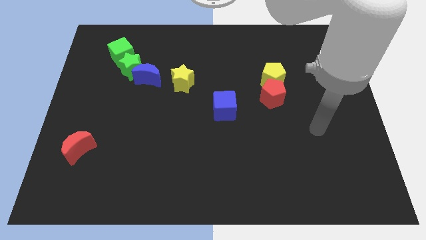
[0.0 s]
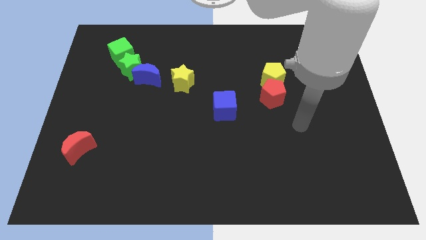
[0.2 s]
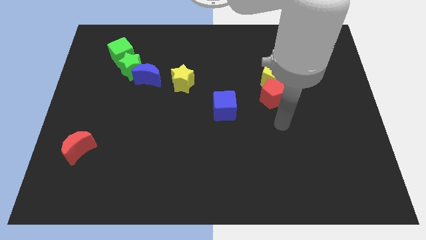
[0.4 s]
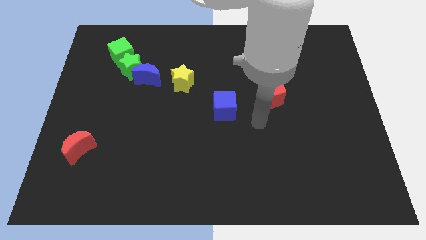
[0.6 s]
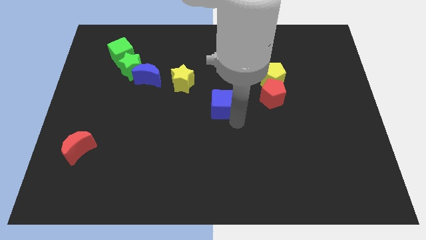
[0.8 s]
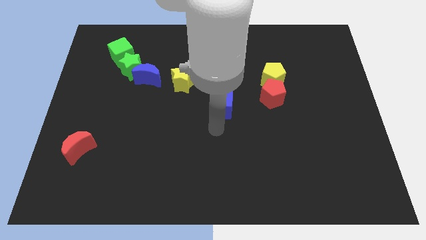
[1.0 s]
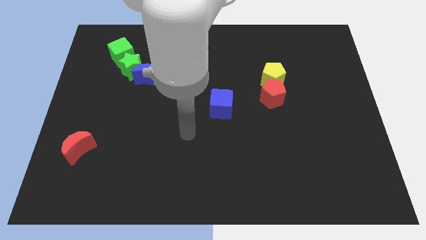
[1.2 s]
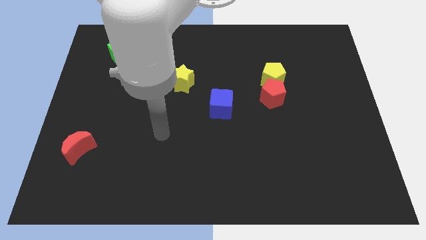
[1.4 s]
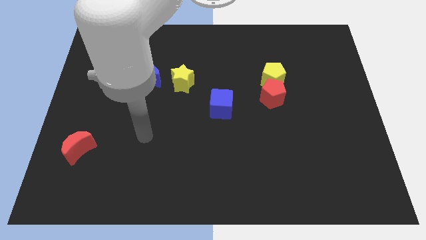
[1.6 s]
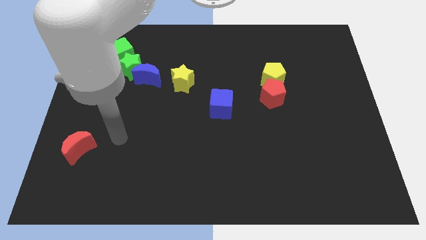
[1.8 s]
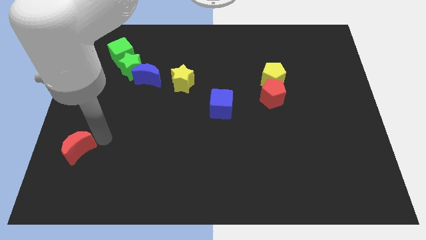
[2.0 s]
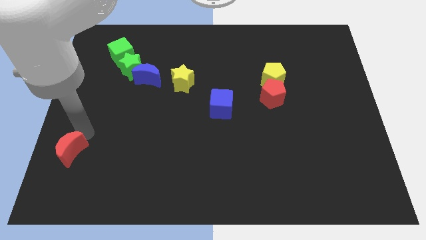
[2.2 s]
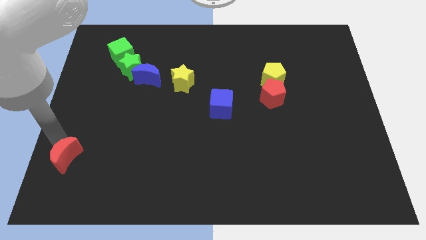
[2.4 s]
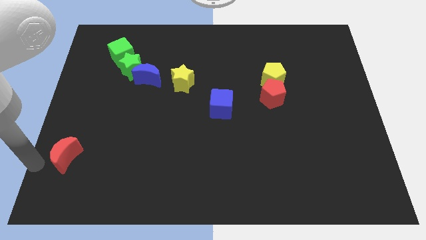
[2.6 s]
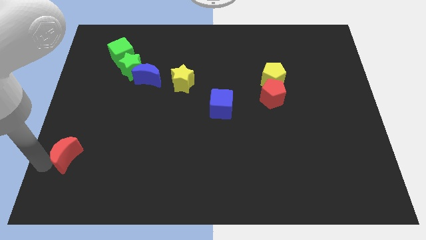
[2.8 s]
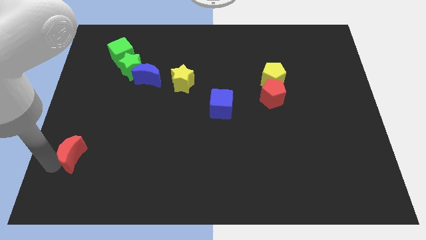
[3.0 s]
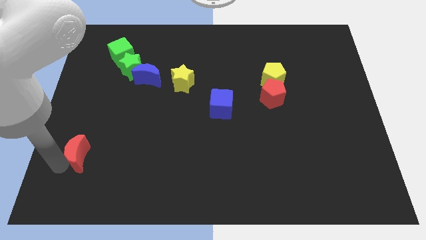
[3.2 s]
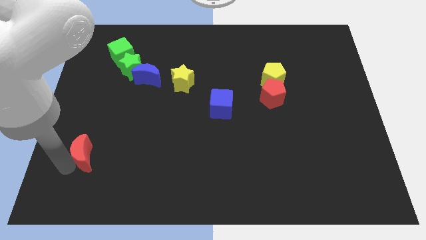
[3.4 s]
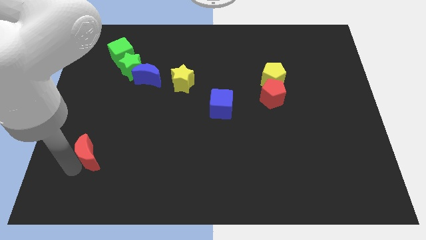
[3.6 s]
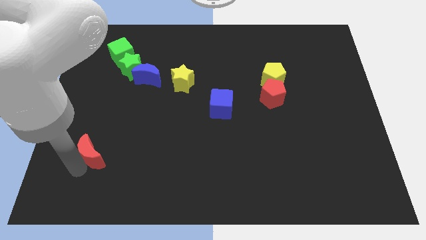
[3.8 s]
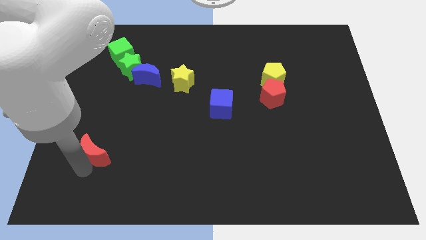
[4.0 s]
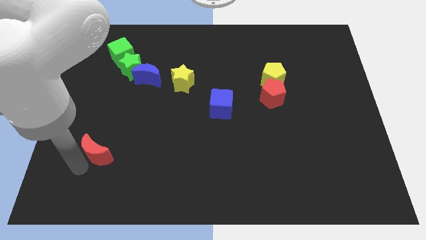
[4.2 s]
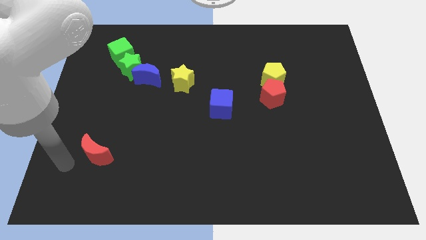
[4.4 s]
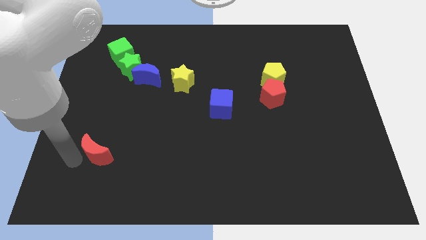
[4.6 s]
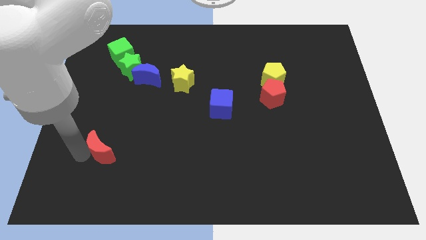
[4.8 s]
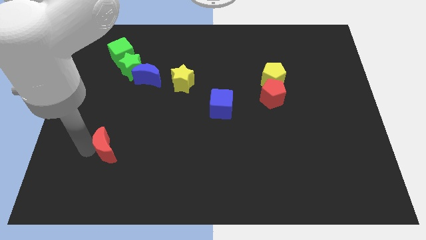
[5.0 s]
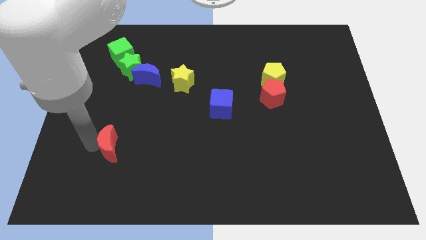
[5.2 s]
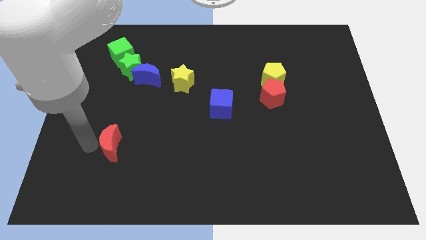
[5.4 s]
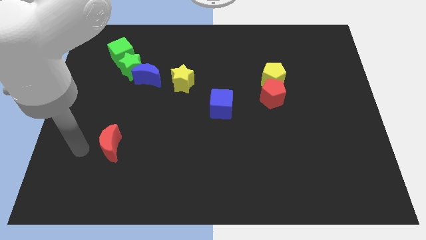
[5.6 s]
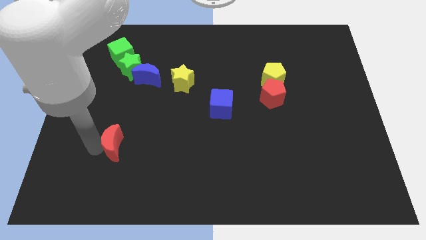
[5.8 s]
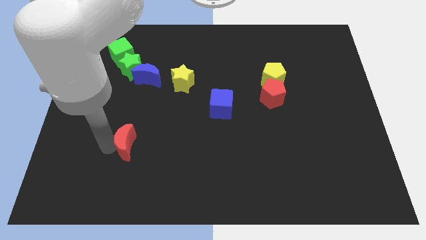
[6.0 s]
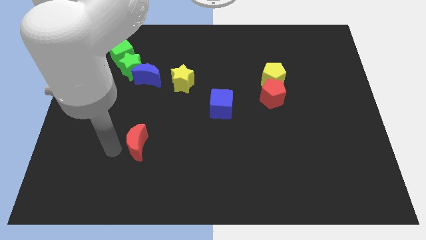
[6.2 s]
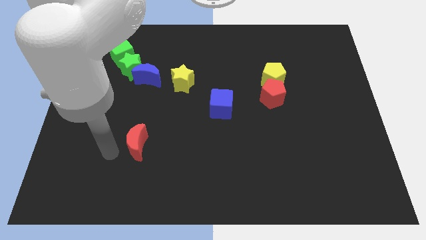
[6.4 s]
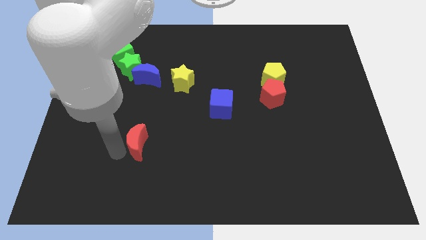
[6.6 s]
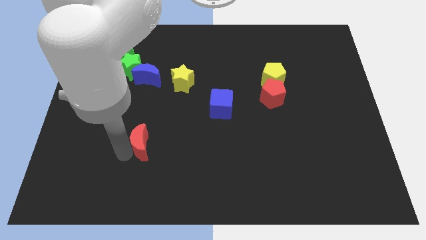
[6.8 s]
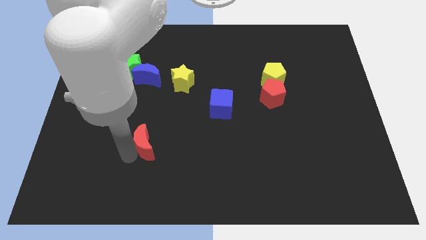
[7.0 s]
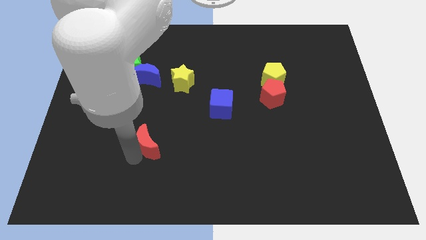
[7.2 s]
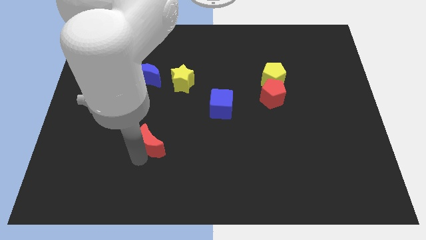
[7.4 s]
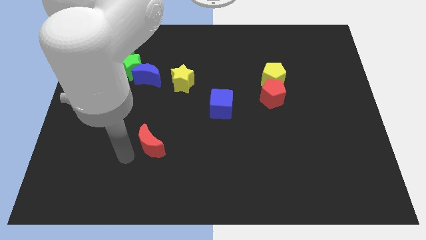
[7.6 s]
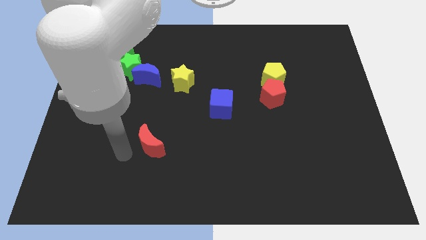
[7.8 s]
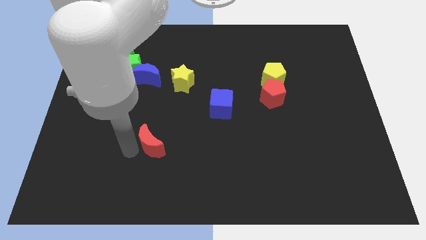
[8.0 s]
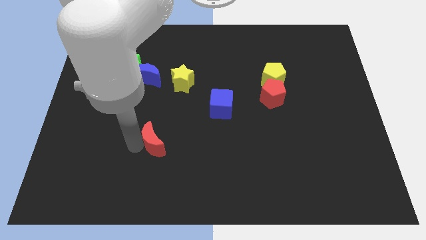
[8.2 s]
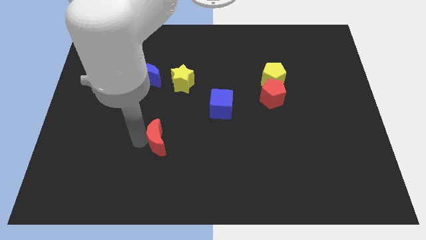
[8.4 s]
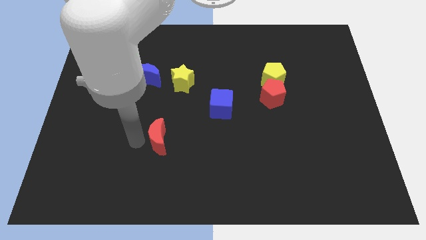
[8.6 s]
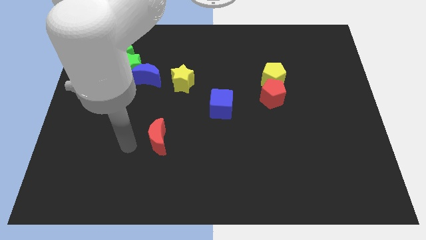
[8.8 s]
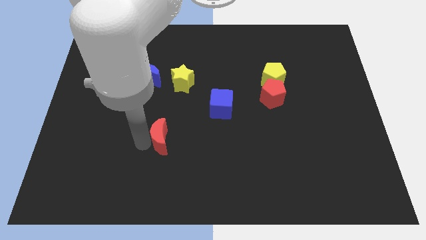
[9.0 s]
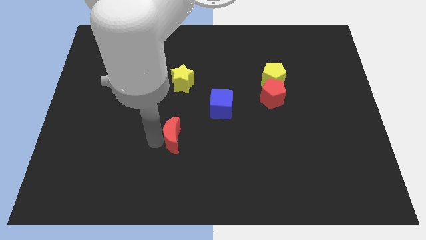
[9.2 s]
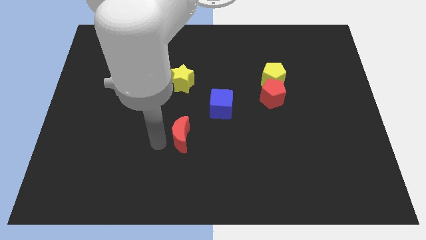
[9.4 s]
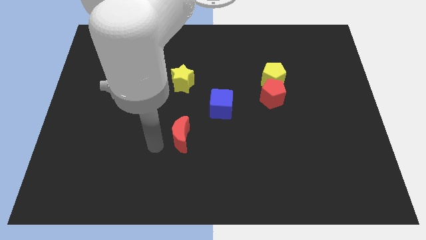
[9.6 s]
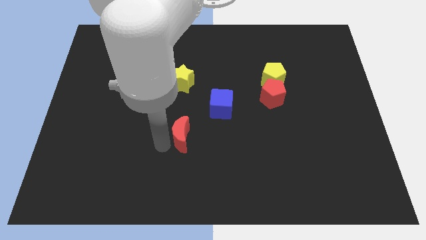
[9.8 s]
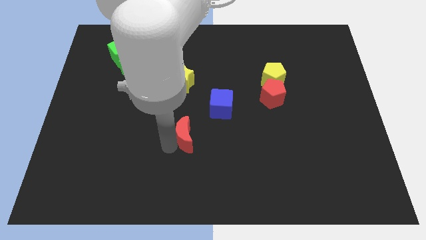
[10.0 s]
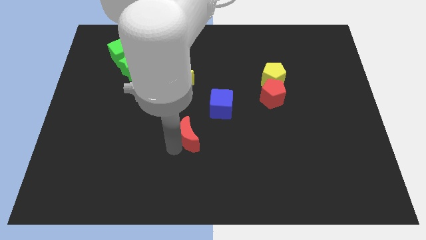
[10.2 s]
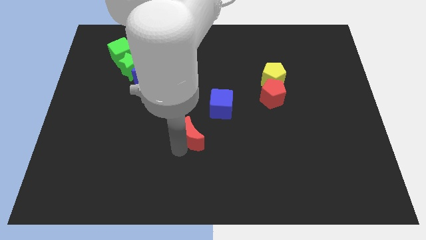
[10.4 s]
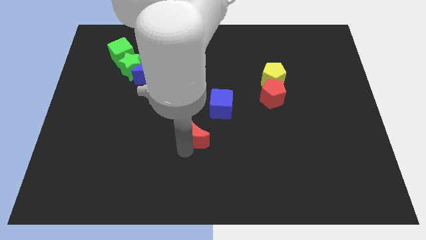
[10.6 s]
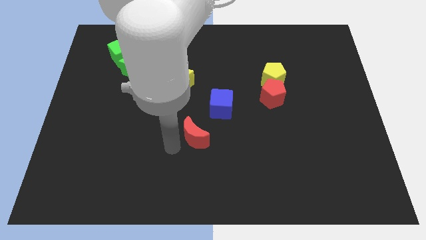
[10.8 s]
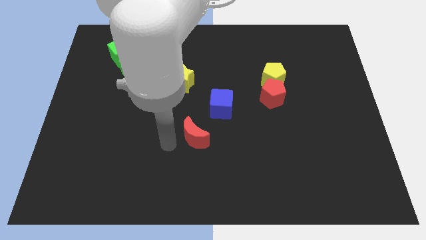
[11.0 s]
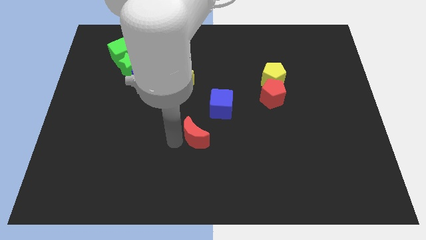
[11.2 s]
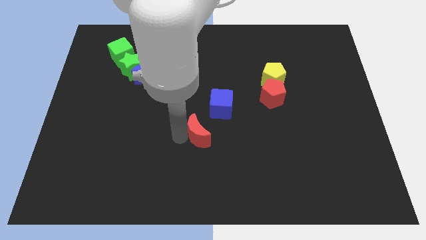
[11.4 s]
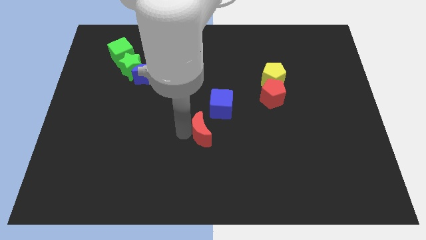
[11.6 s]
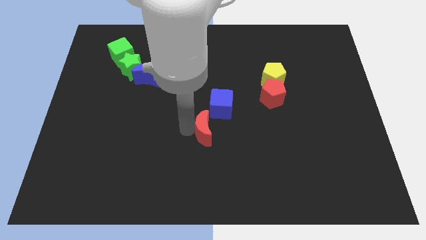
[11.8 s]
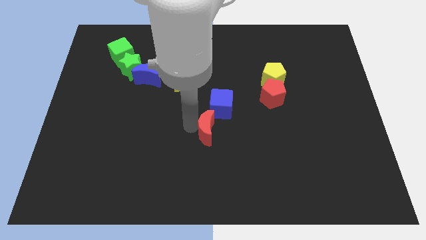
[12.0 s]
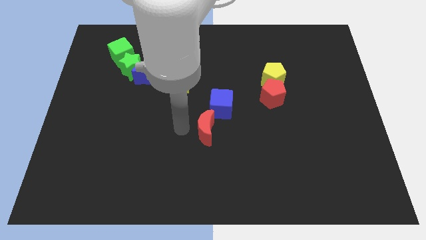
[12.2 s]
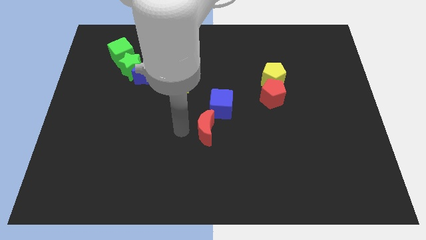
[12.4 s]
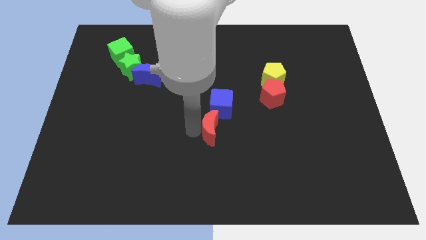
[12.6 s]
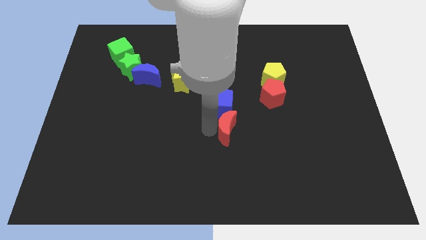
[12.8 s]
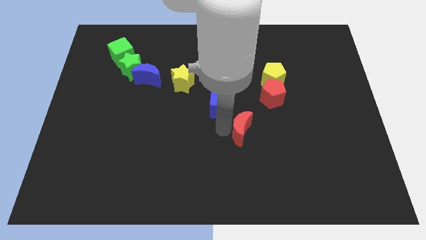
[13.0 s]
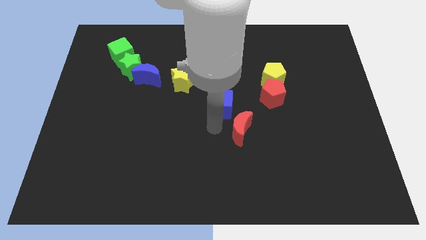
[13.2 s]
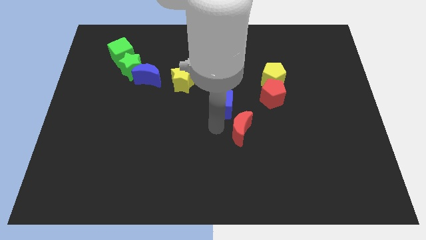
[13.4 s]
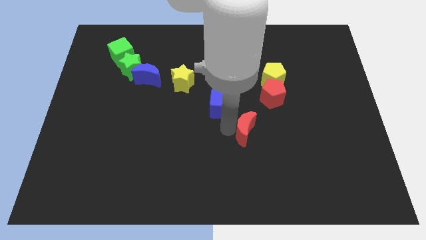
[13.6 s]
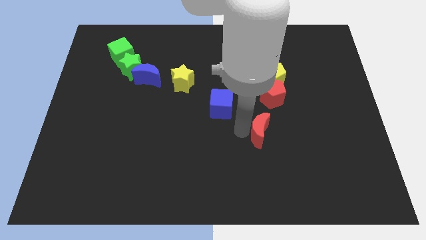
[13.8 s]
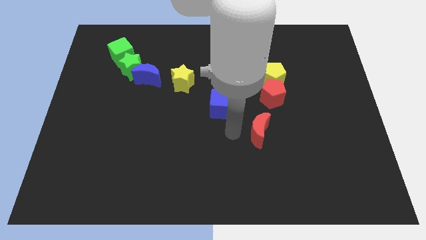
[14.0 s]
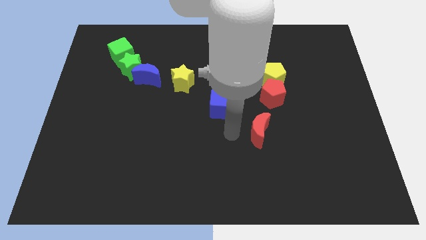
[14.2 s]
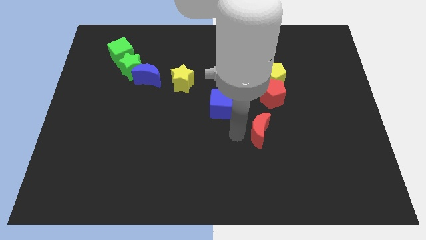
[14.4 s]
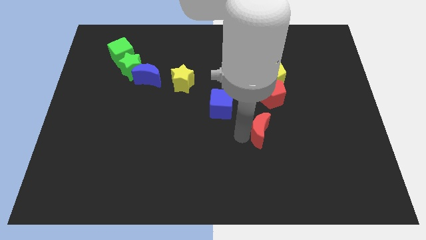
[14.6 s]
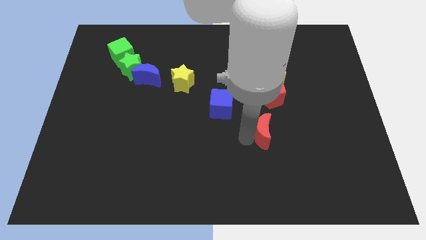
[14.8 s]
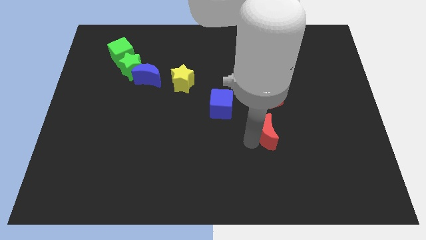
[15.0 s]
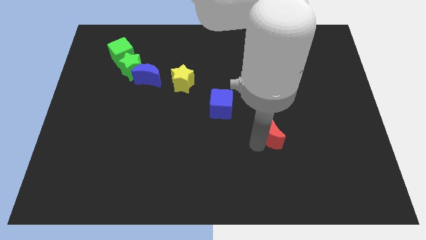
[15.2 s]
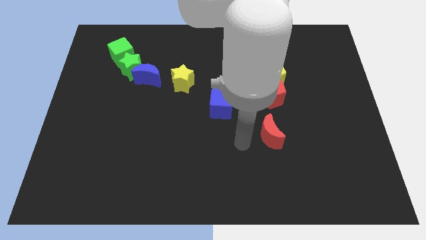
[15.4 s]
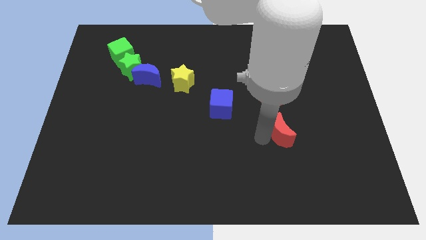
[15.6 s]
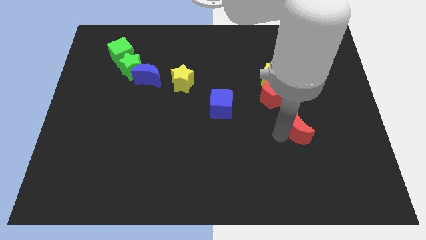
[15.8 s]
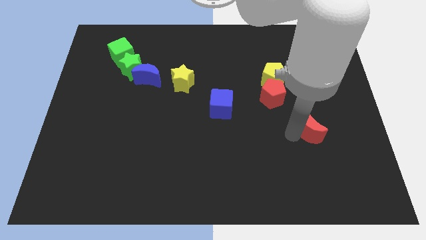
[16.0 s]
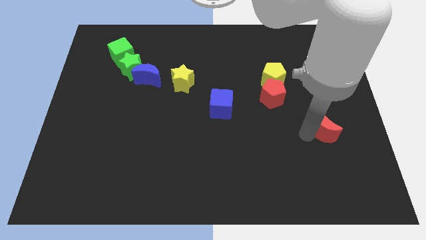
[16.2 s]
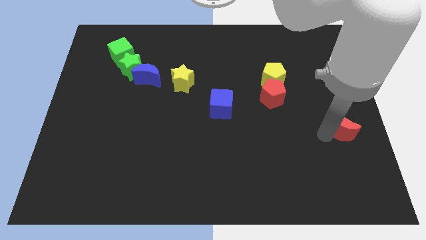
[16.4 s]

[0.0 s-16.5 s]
move the red moon to the right side of the board
